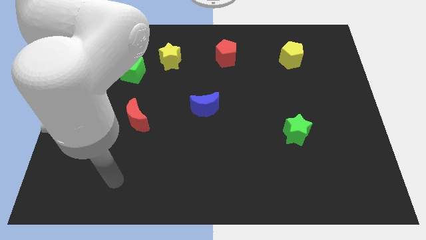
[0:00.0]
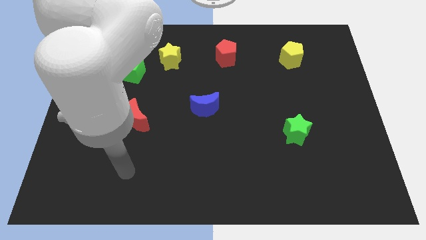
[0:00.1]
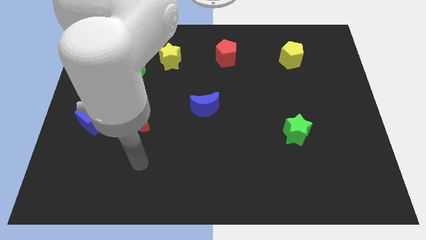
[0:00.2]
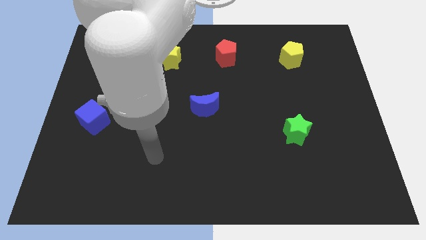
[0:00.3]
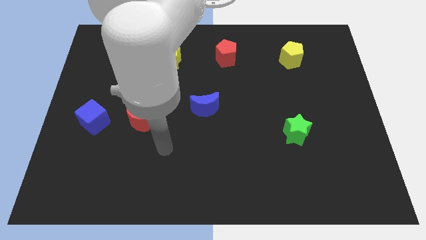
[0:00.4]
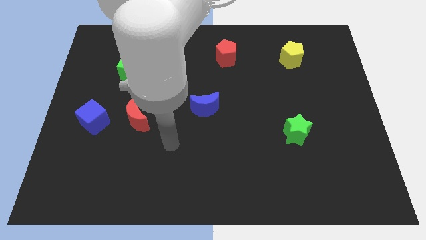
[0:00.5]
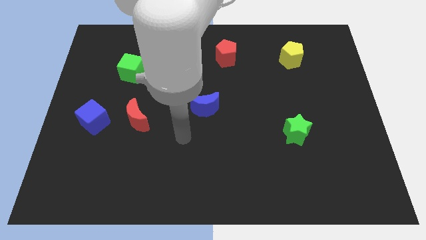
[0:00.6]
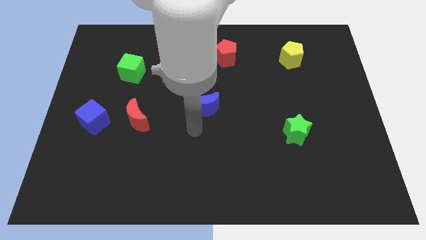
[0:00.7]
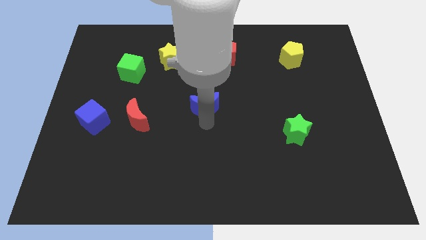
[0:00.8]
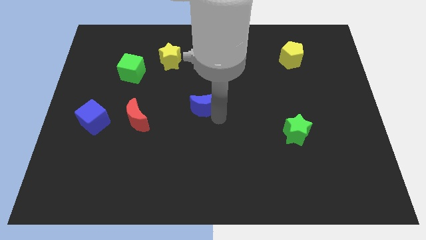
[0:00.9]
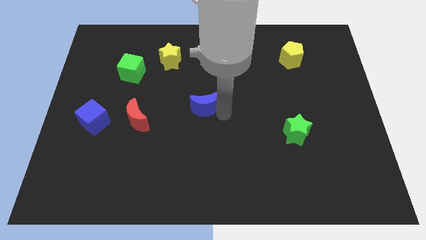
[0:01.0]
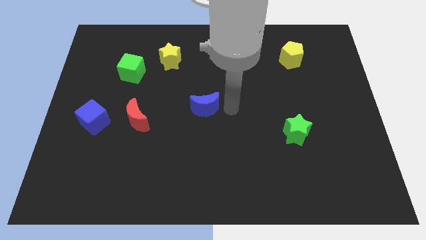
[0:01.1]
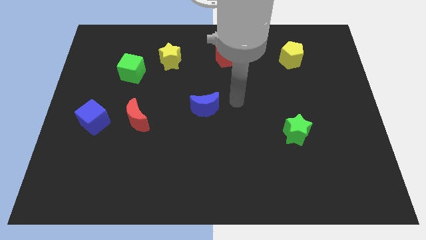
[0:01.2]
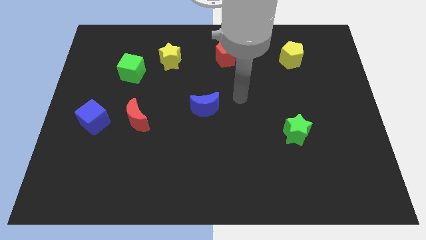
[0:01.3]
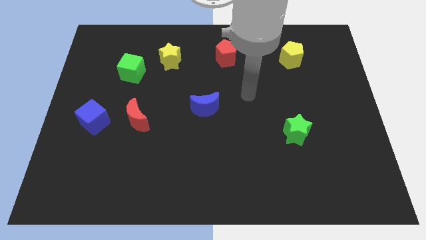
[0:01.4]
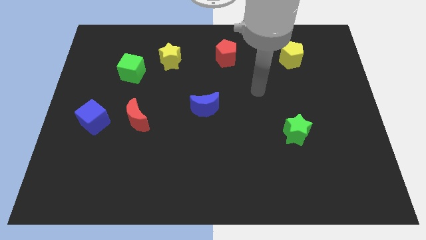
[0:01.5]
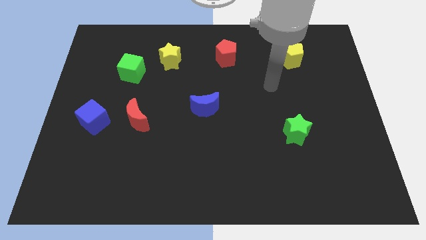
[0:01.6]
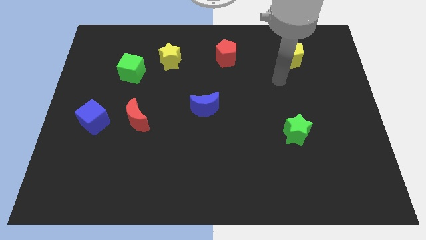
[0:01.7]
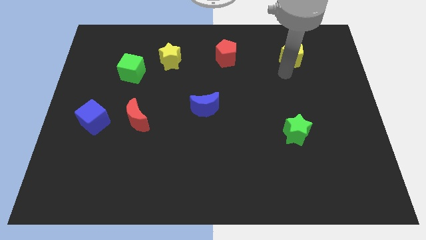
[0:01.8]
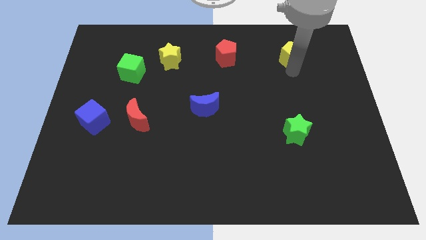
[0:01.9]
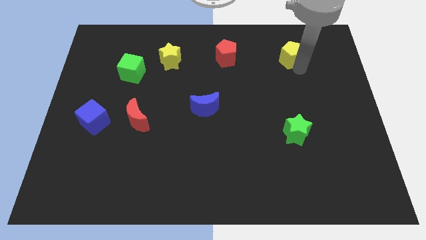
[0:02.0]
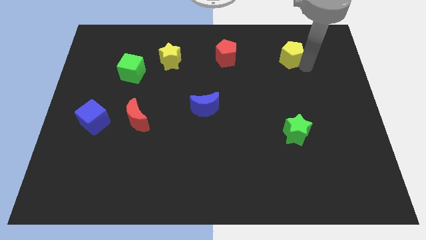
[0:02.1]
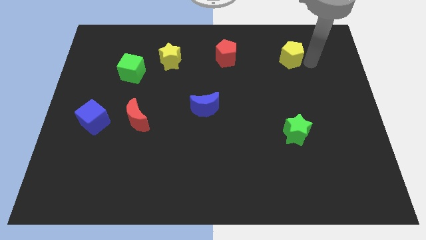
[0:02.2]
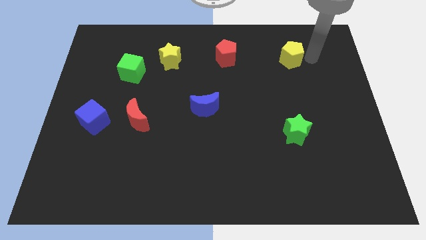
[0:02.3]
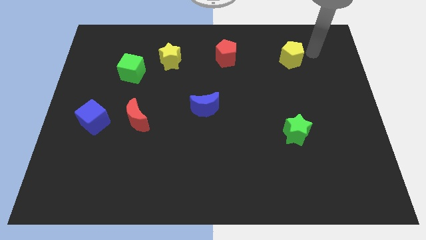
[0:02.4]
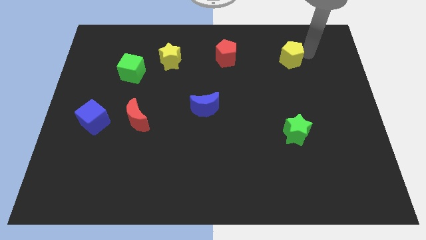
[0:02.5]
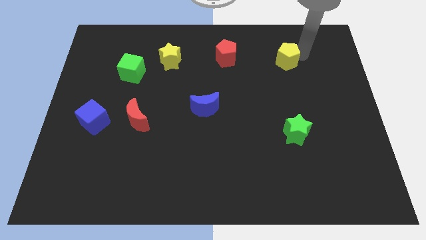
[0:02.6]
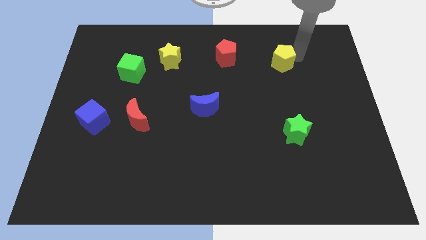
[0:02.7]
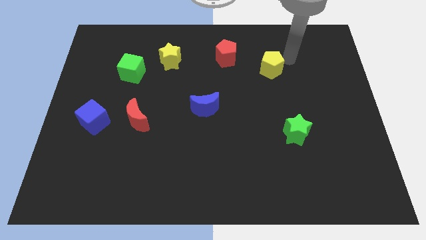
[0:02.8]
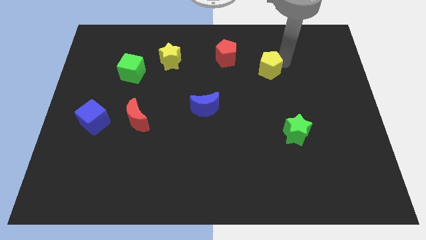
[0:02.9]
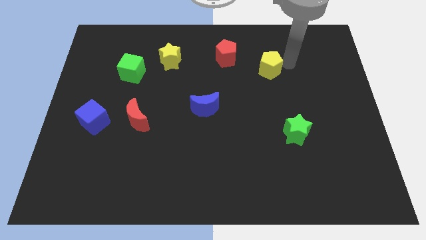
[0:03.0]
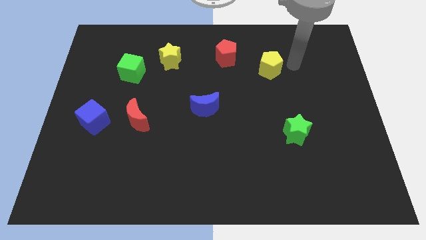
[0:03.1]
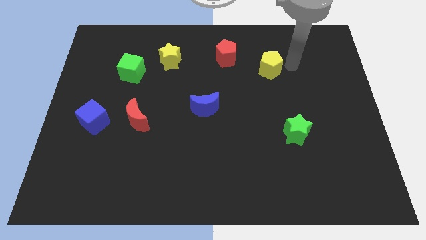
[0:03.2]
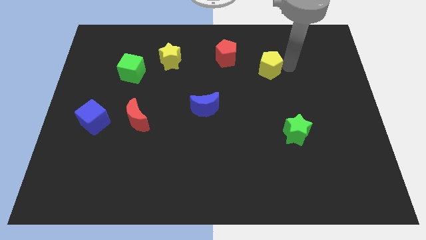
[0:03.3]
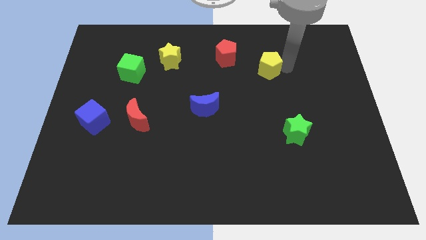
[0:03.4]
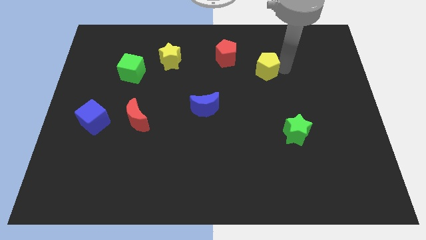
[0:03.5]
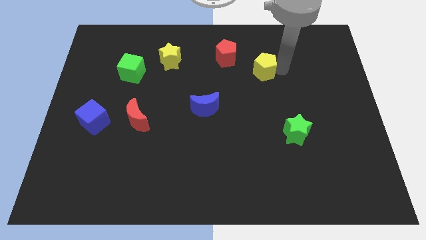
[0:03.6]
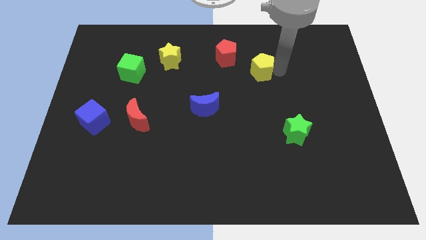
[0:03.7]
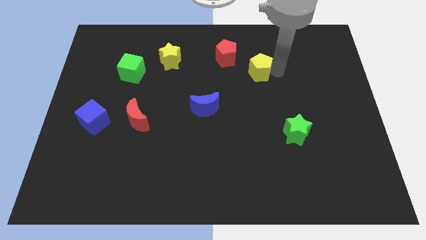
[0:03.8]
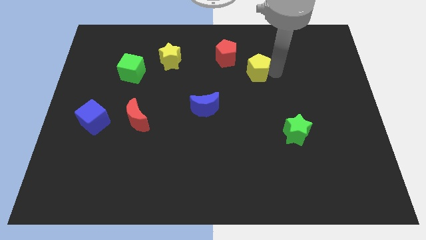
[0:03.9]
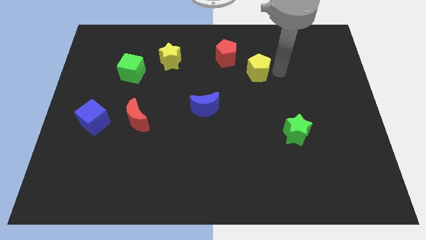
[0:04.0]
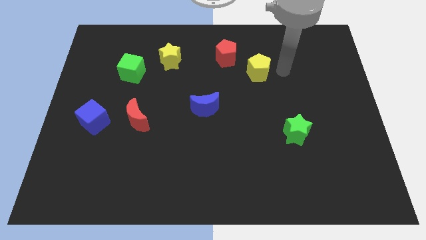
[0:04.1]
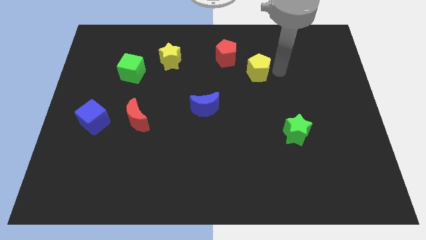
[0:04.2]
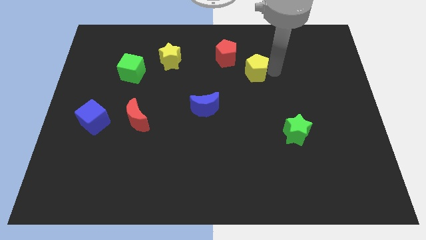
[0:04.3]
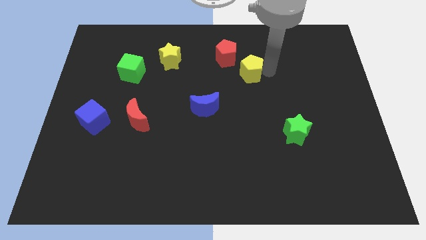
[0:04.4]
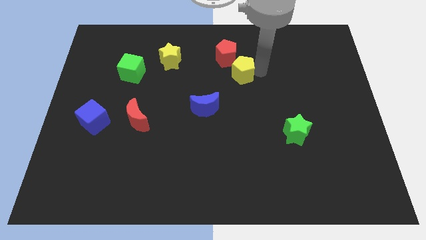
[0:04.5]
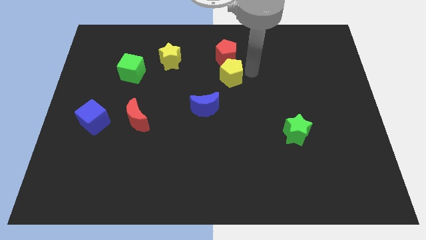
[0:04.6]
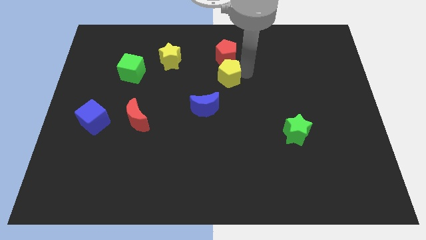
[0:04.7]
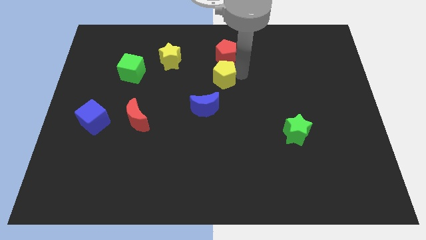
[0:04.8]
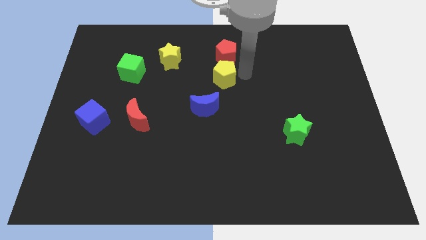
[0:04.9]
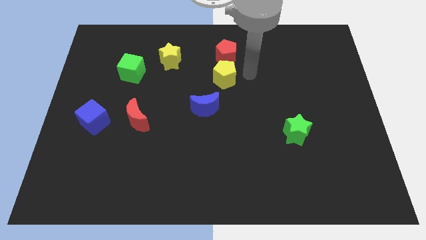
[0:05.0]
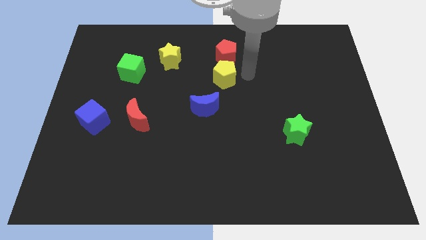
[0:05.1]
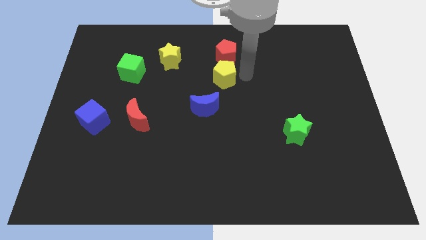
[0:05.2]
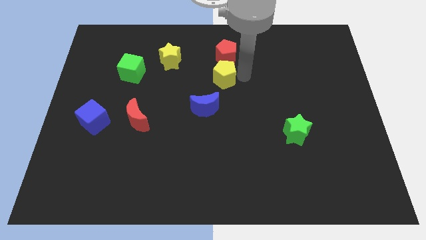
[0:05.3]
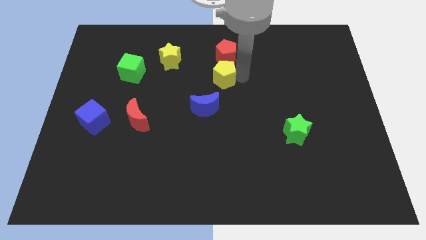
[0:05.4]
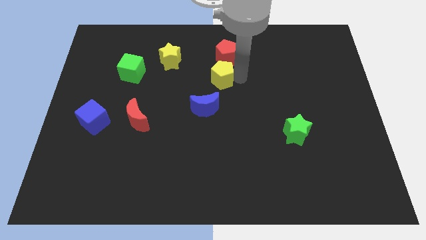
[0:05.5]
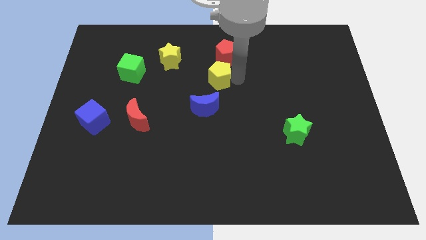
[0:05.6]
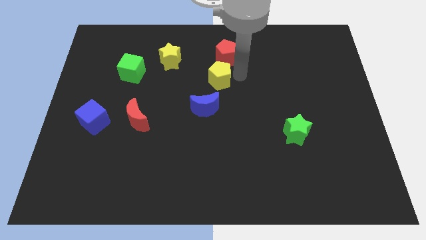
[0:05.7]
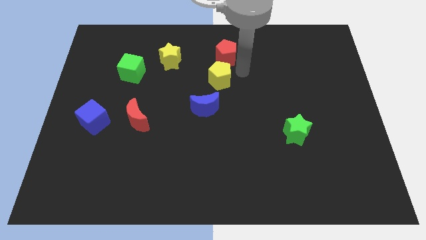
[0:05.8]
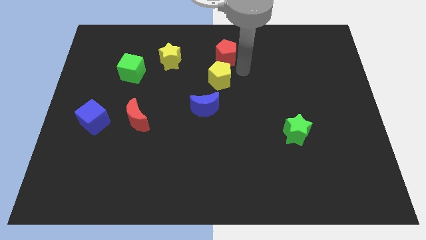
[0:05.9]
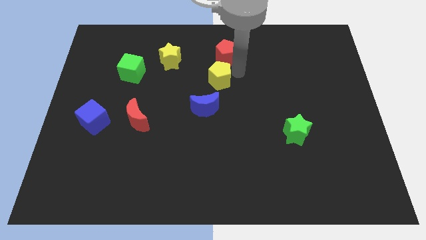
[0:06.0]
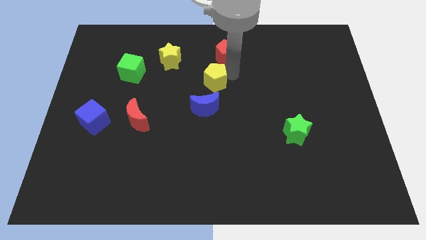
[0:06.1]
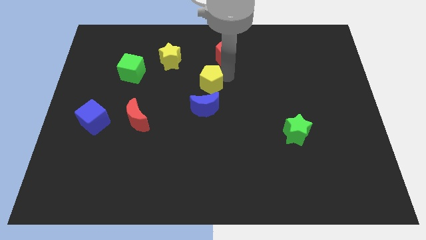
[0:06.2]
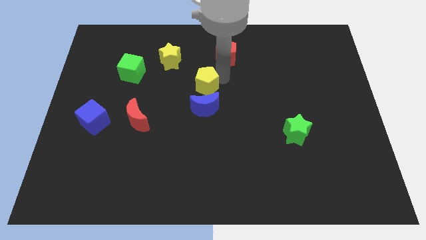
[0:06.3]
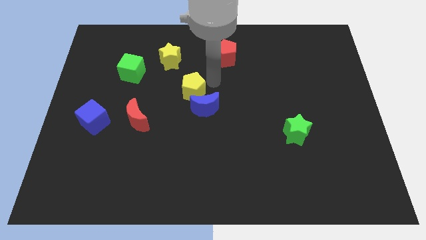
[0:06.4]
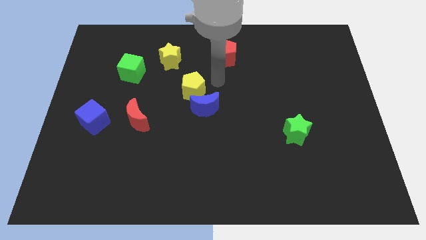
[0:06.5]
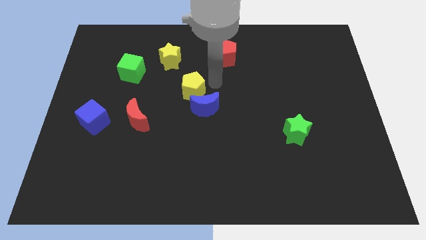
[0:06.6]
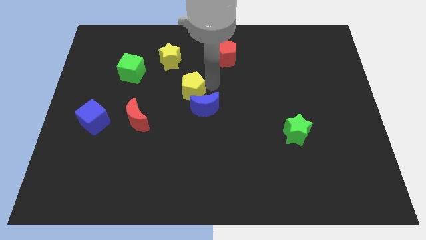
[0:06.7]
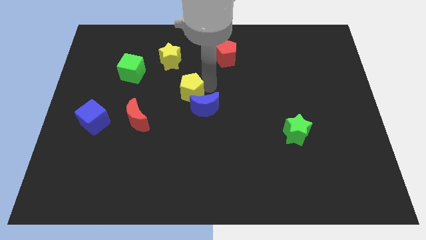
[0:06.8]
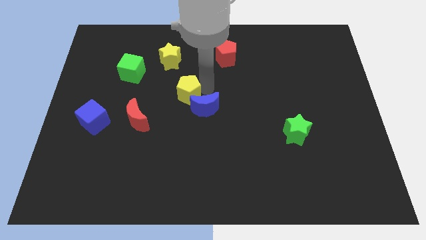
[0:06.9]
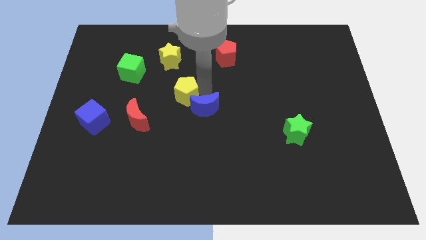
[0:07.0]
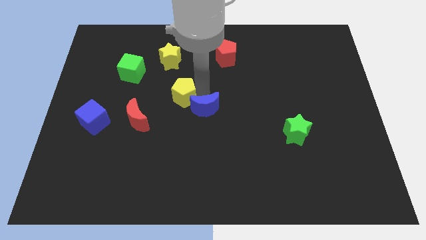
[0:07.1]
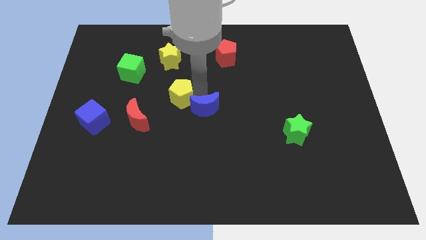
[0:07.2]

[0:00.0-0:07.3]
move the yellow pentagon to the top right side of the red moon

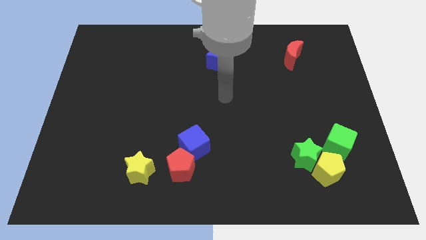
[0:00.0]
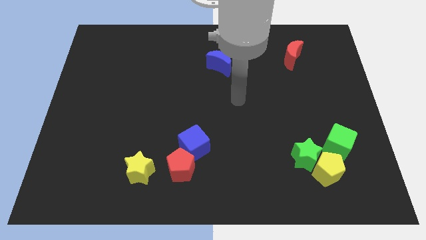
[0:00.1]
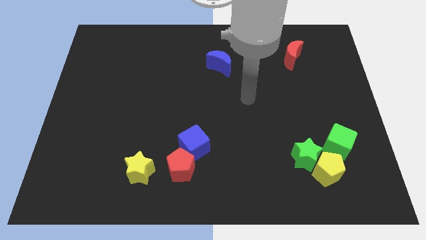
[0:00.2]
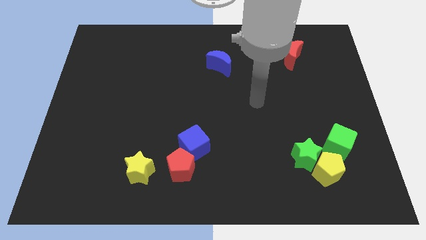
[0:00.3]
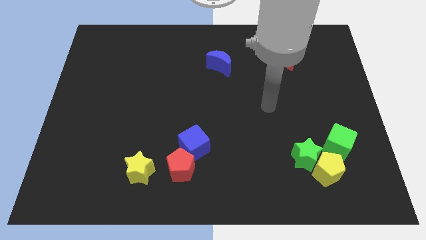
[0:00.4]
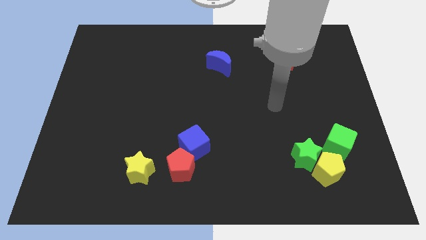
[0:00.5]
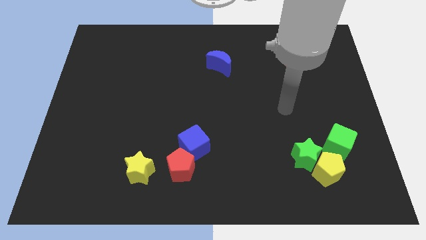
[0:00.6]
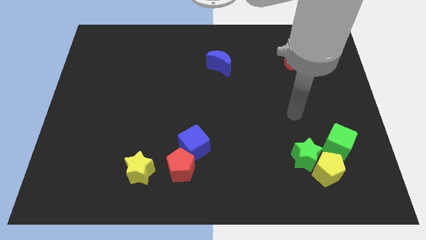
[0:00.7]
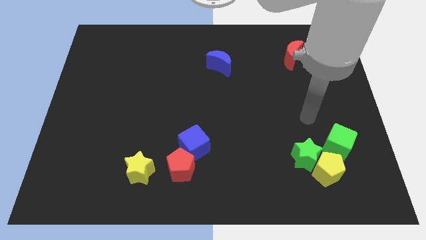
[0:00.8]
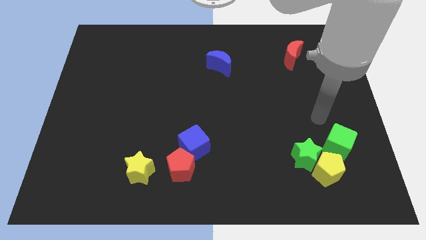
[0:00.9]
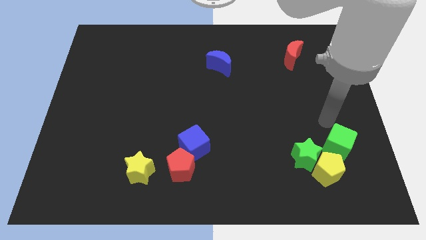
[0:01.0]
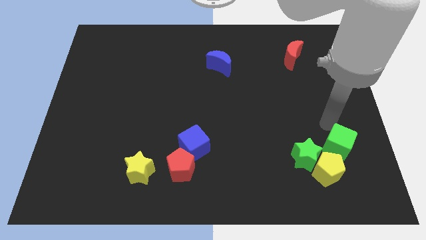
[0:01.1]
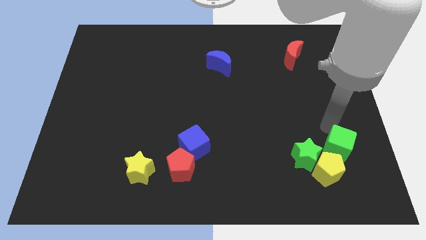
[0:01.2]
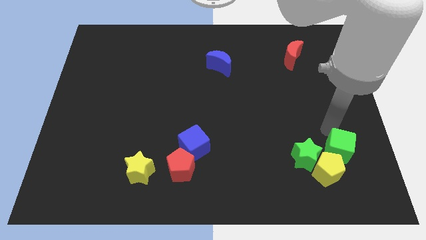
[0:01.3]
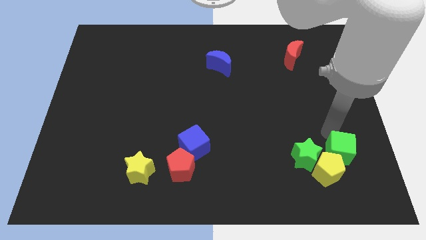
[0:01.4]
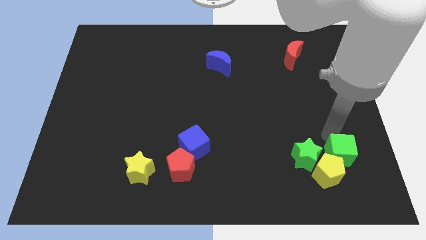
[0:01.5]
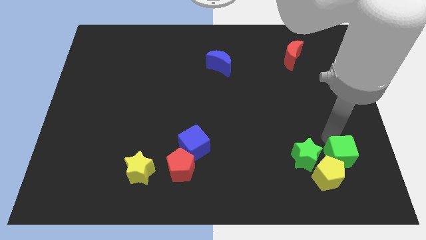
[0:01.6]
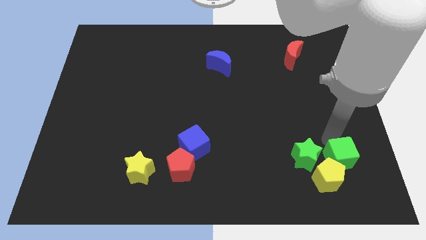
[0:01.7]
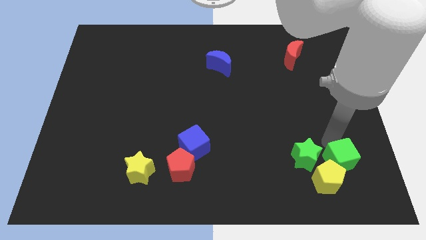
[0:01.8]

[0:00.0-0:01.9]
slide the green cube to the bottom right side of the green star
